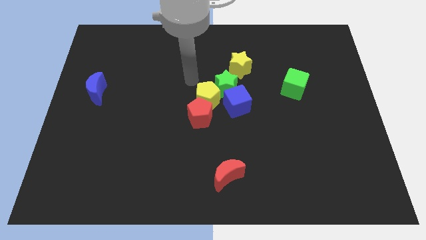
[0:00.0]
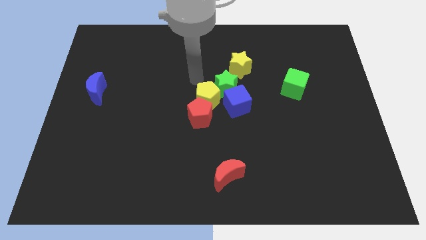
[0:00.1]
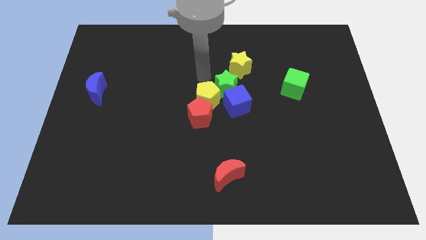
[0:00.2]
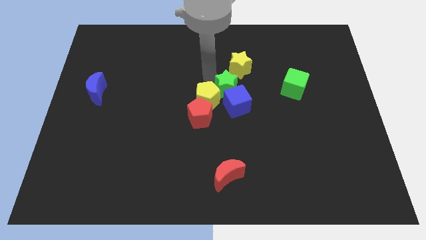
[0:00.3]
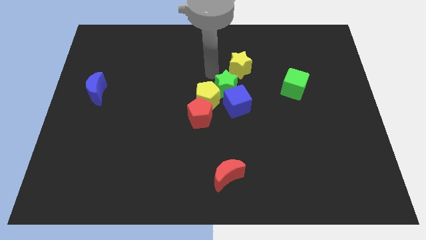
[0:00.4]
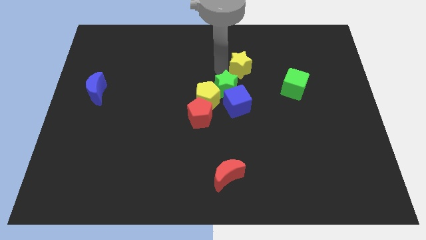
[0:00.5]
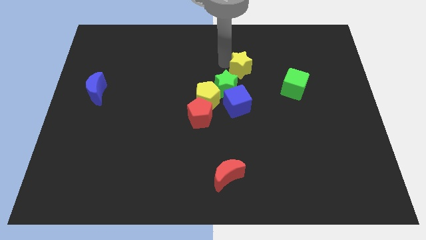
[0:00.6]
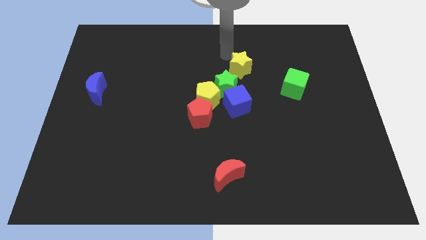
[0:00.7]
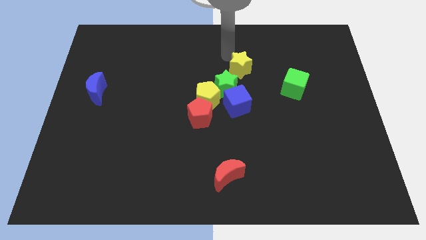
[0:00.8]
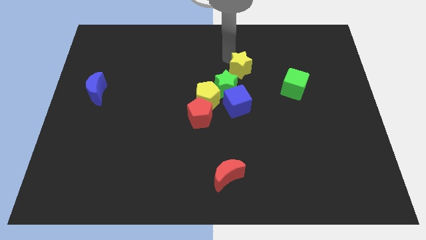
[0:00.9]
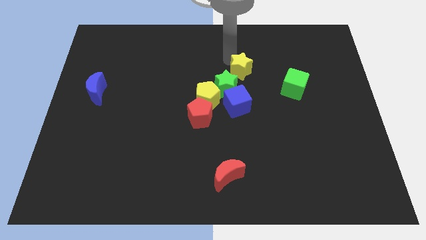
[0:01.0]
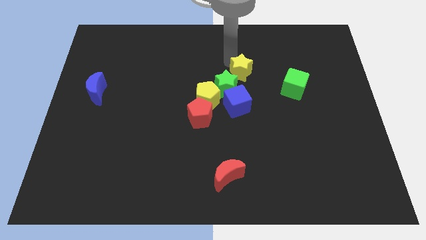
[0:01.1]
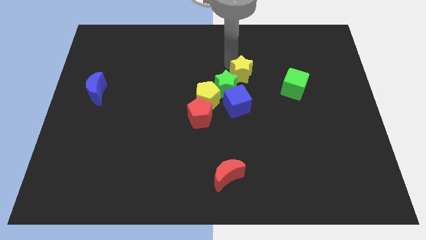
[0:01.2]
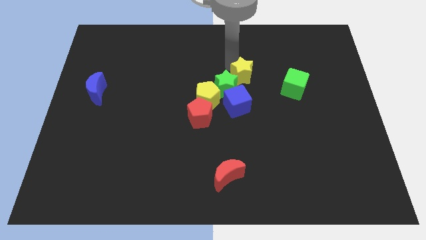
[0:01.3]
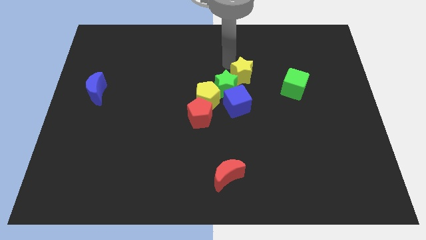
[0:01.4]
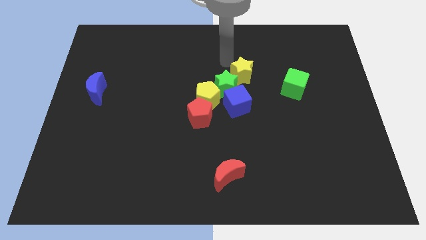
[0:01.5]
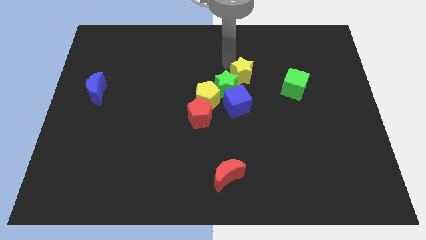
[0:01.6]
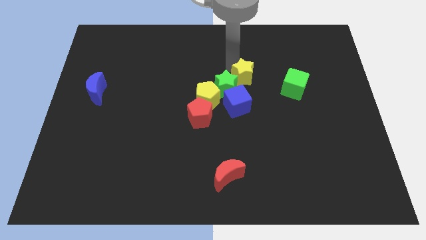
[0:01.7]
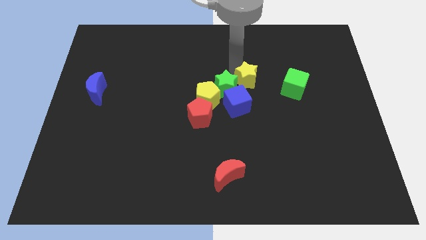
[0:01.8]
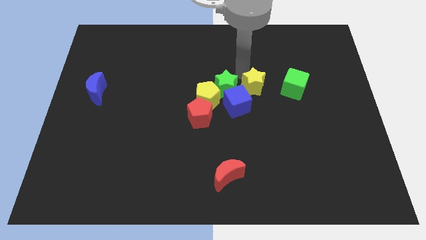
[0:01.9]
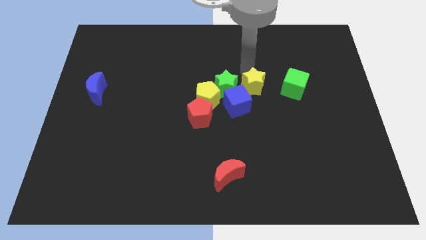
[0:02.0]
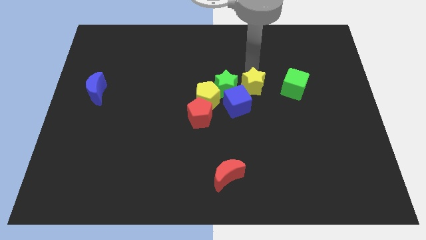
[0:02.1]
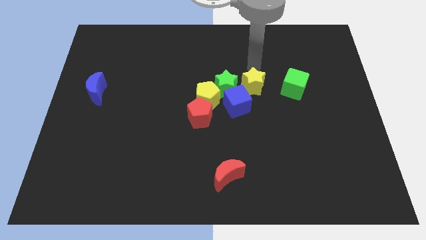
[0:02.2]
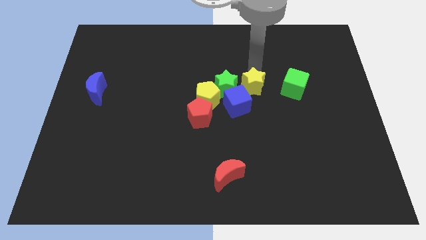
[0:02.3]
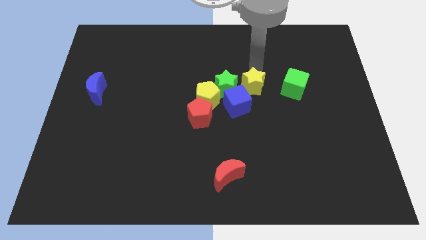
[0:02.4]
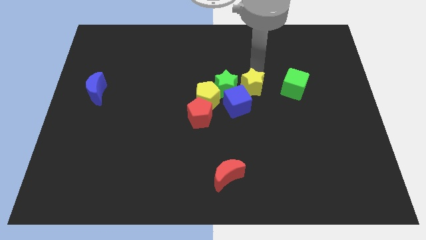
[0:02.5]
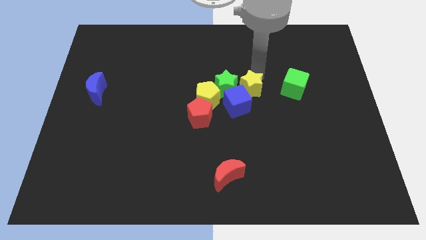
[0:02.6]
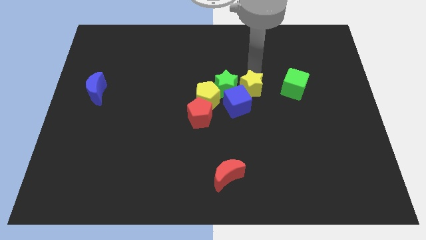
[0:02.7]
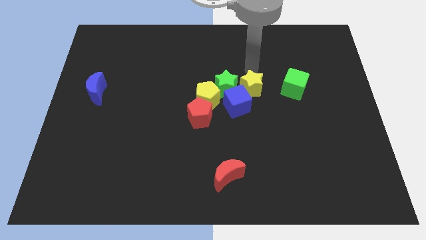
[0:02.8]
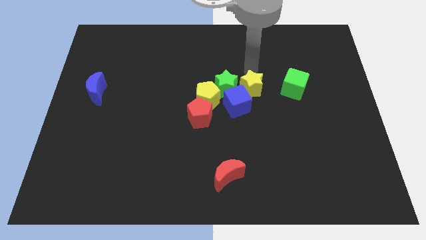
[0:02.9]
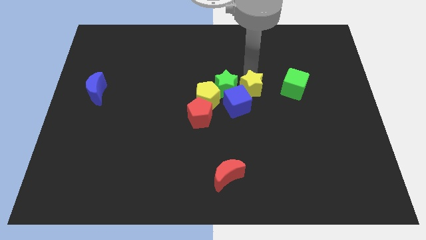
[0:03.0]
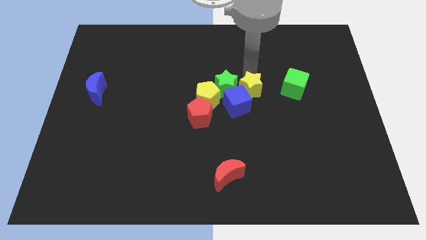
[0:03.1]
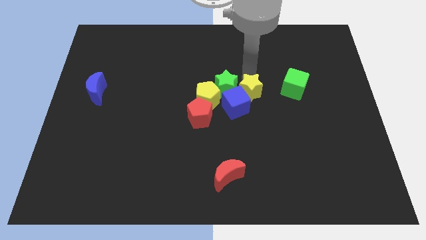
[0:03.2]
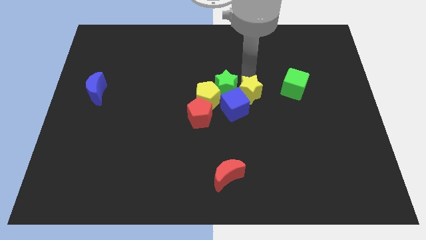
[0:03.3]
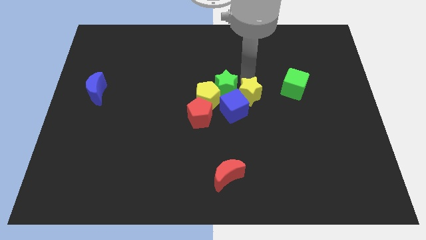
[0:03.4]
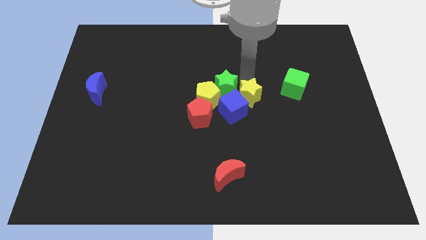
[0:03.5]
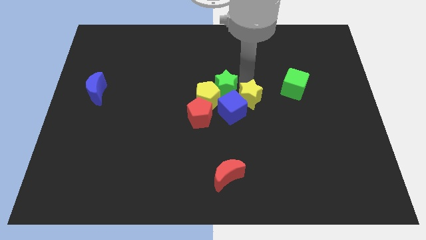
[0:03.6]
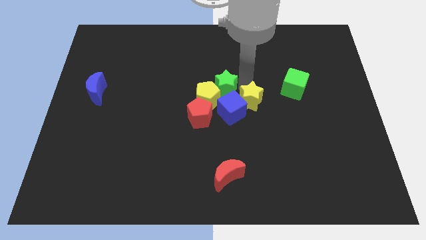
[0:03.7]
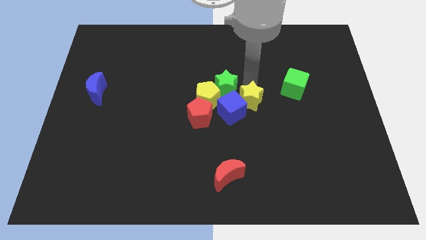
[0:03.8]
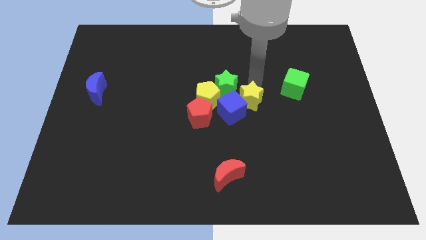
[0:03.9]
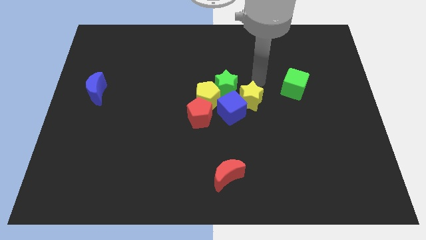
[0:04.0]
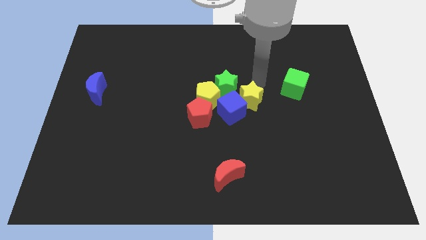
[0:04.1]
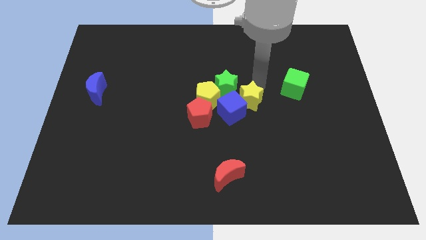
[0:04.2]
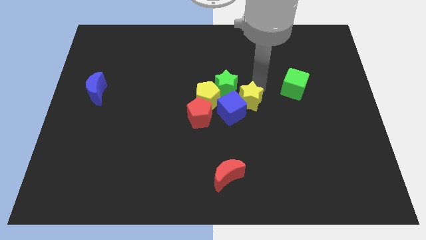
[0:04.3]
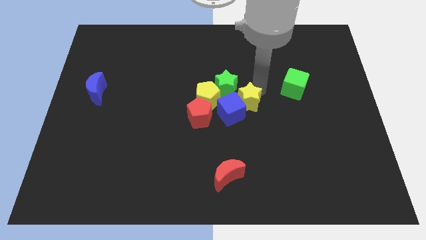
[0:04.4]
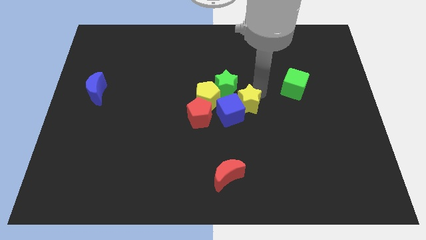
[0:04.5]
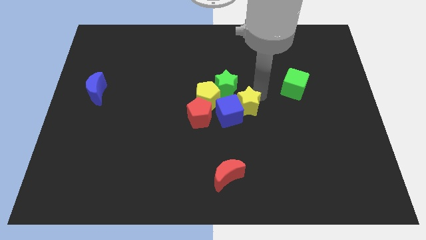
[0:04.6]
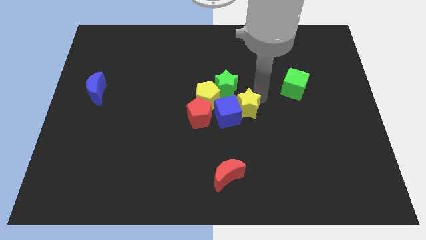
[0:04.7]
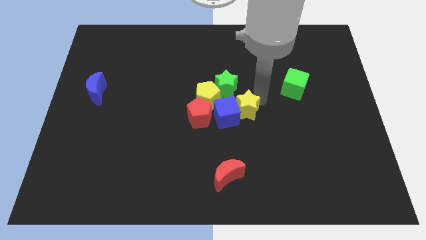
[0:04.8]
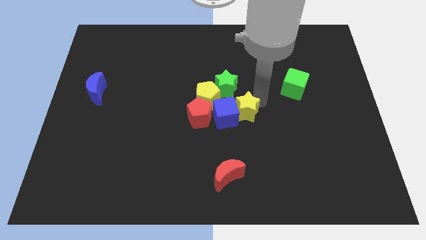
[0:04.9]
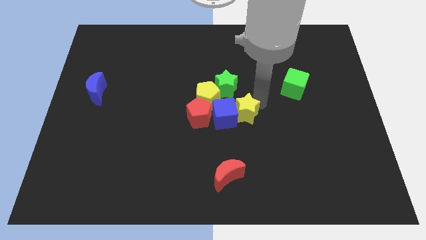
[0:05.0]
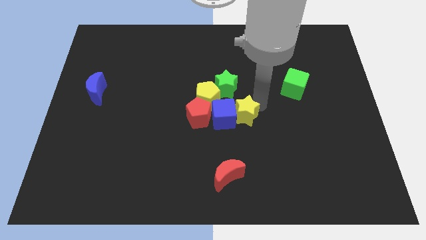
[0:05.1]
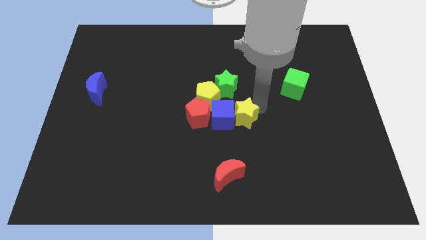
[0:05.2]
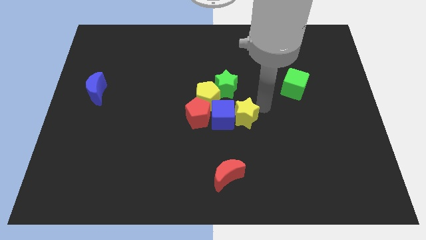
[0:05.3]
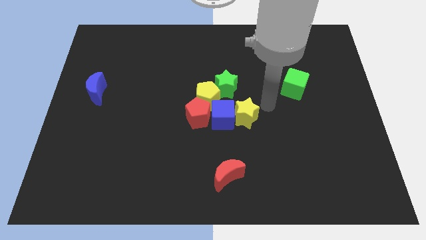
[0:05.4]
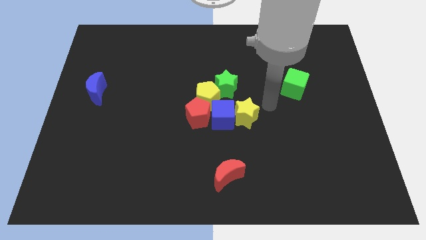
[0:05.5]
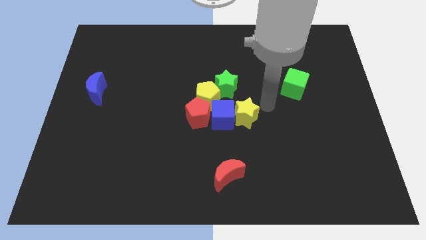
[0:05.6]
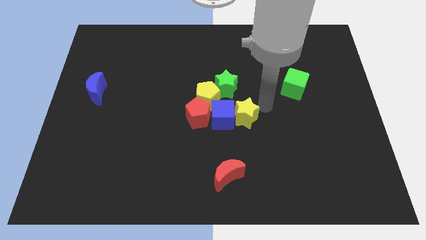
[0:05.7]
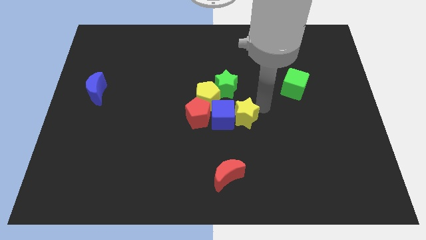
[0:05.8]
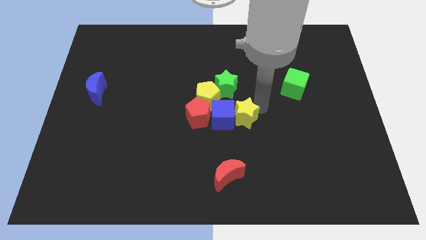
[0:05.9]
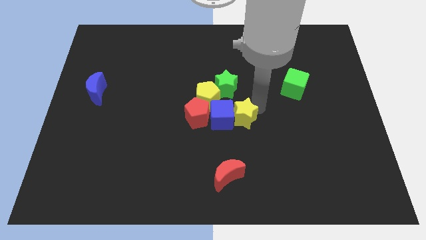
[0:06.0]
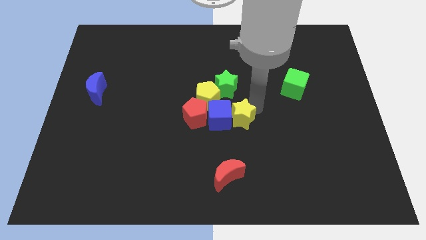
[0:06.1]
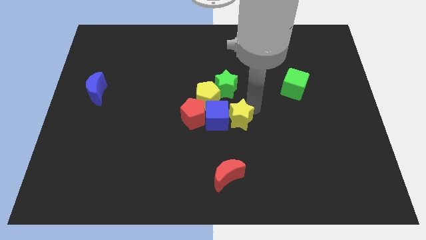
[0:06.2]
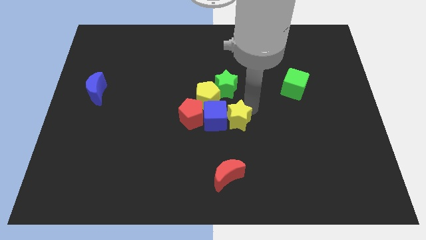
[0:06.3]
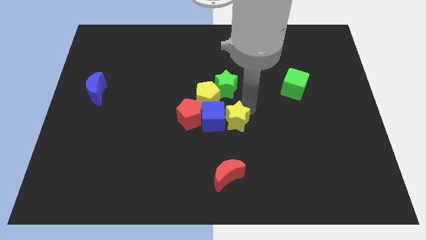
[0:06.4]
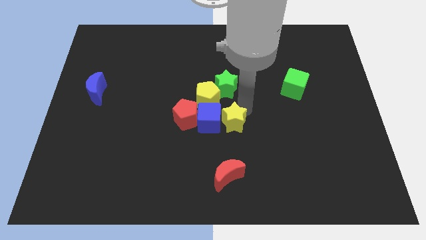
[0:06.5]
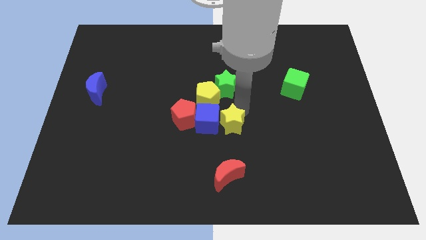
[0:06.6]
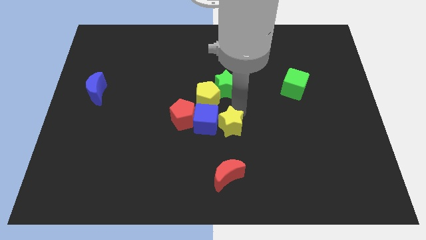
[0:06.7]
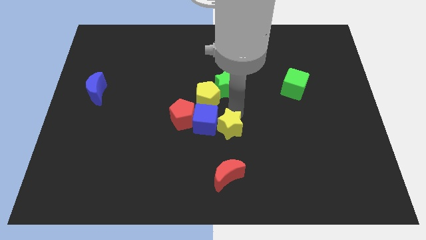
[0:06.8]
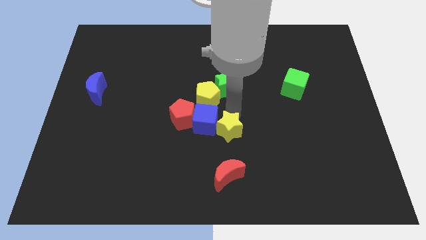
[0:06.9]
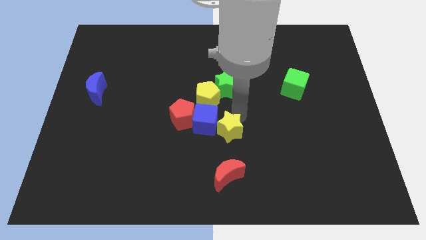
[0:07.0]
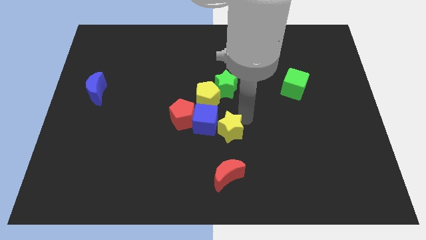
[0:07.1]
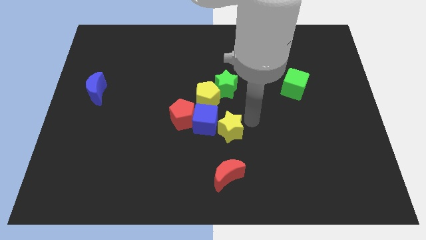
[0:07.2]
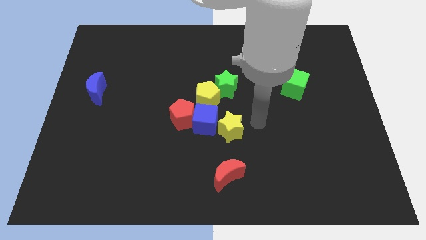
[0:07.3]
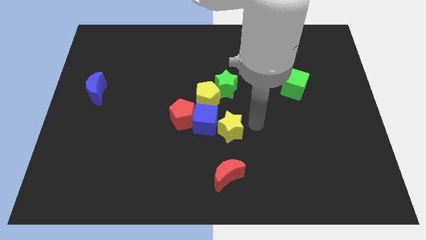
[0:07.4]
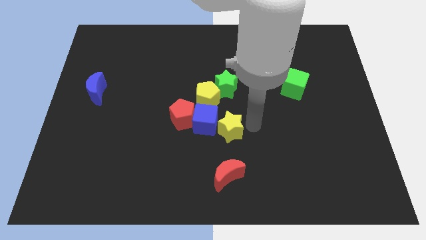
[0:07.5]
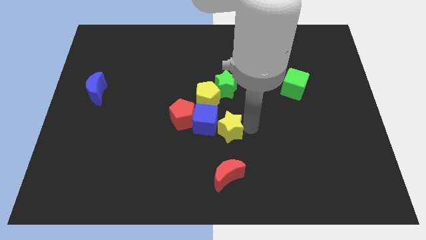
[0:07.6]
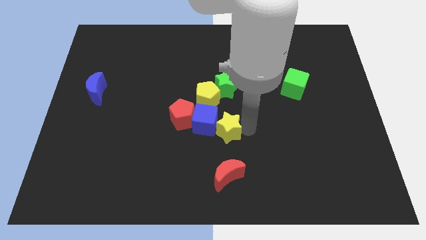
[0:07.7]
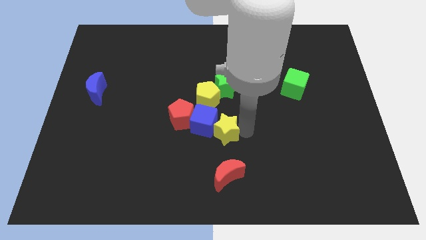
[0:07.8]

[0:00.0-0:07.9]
put the yellow star to the bottom of the yellow pentagon
